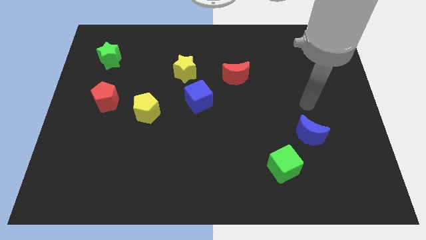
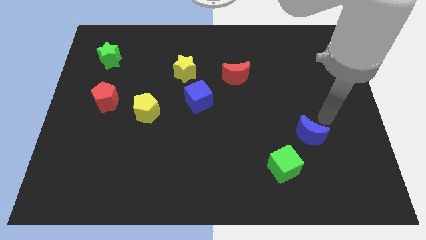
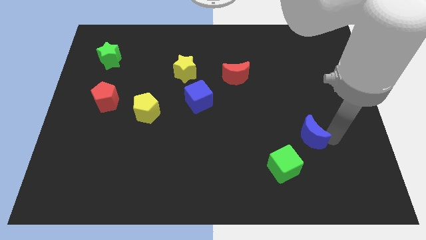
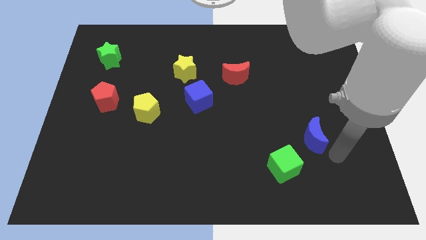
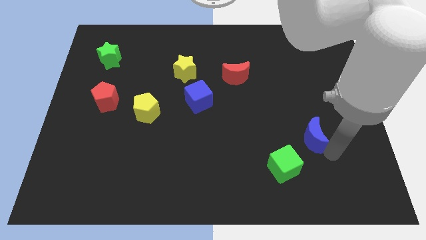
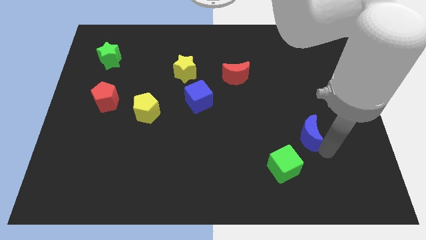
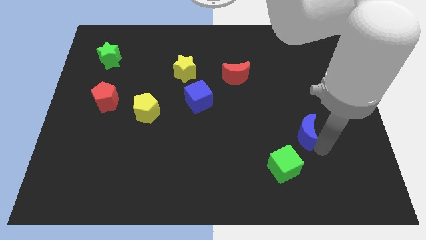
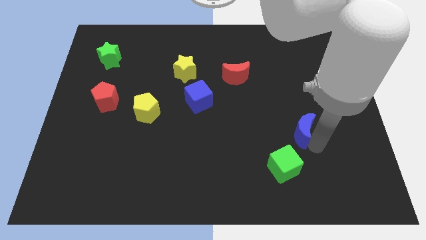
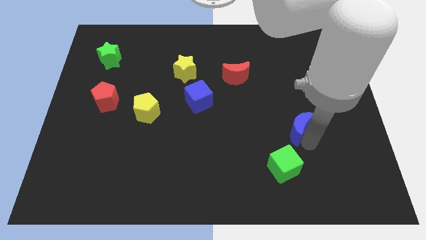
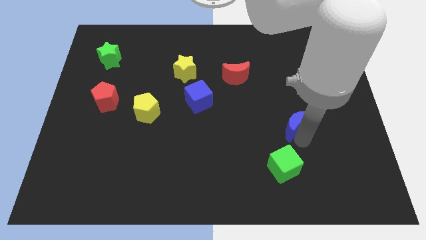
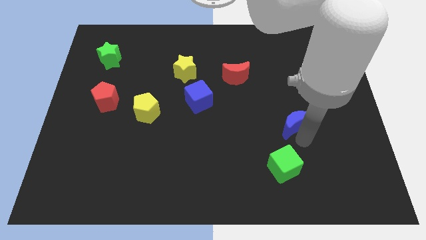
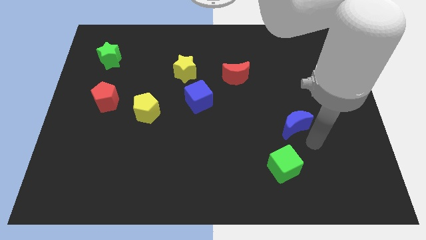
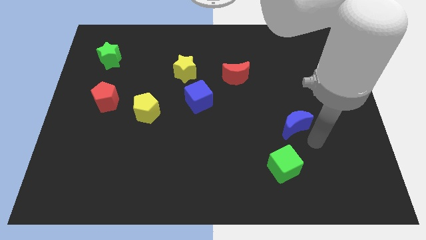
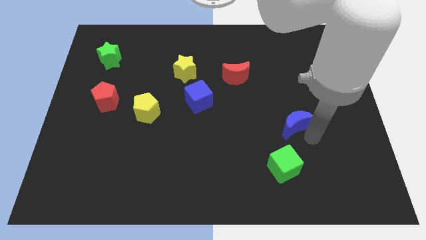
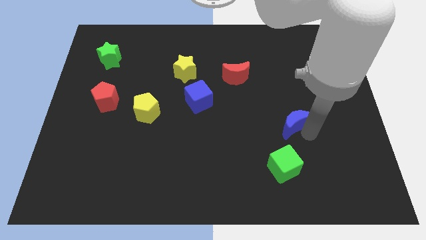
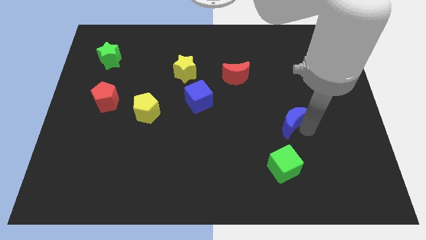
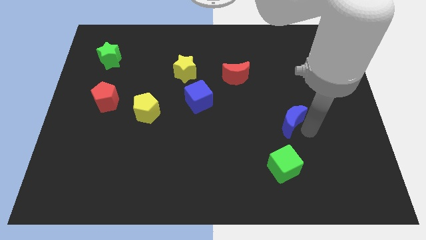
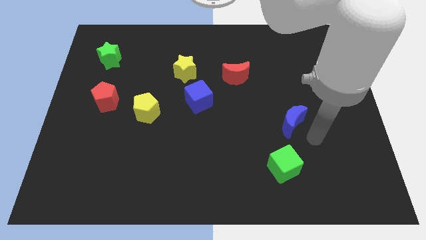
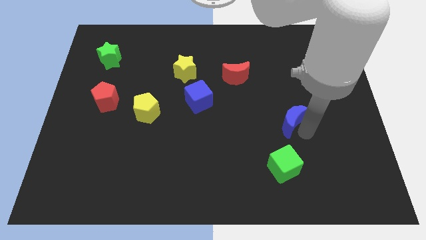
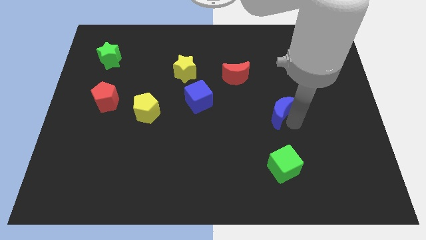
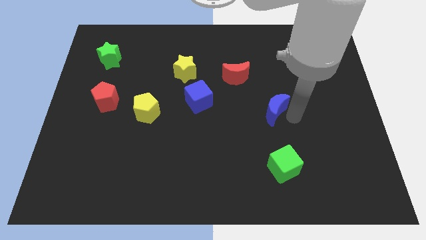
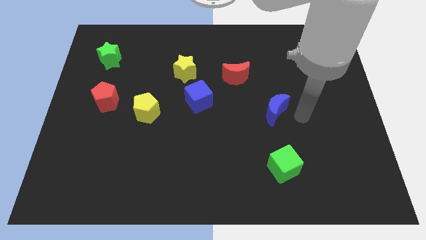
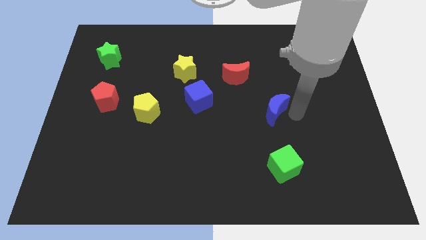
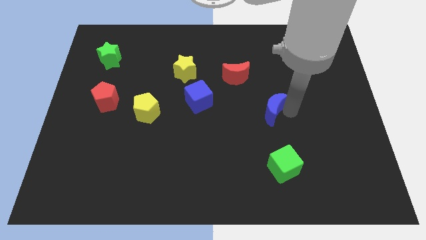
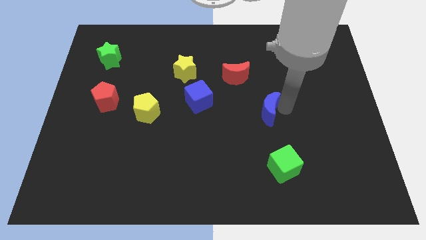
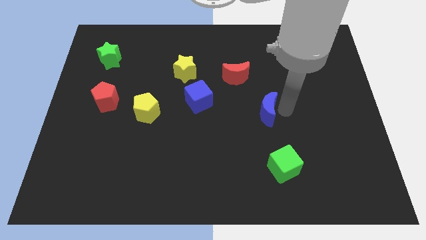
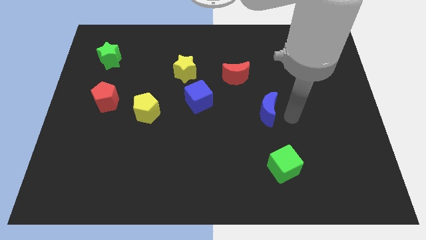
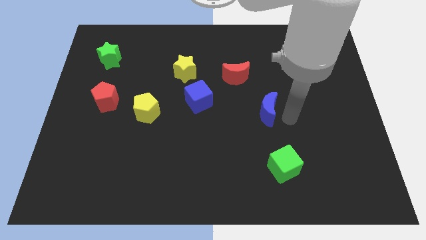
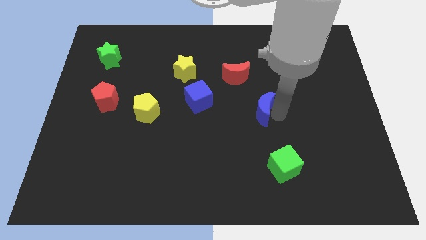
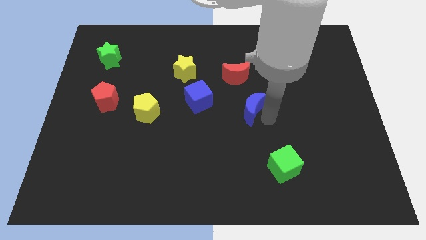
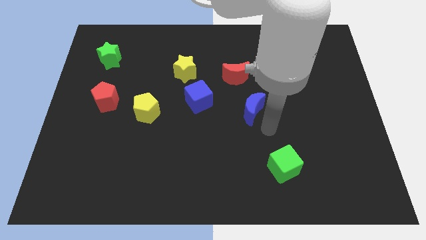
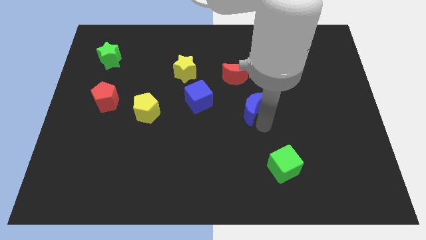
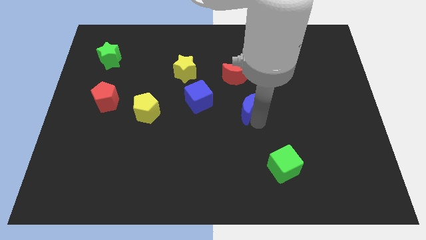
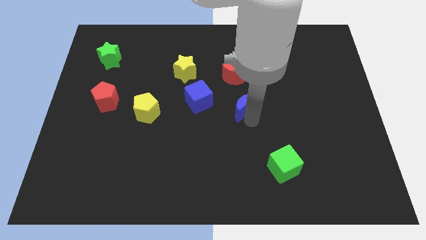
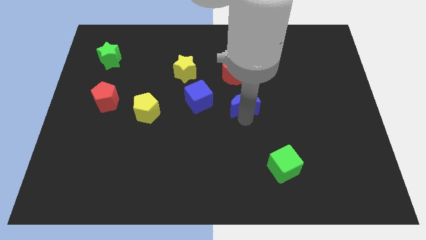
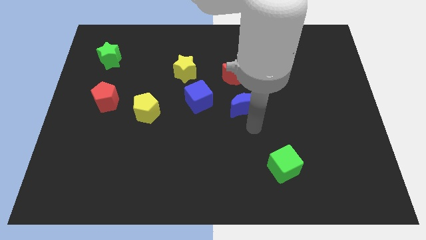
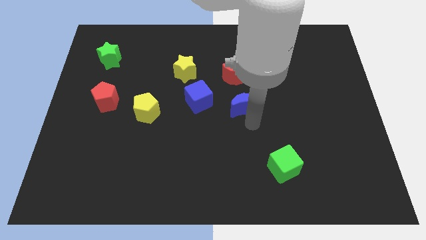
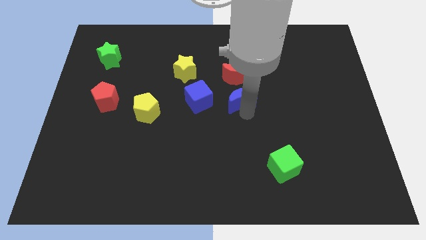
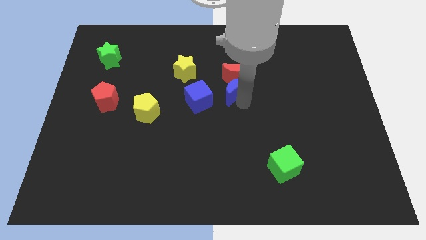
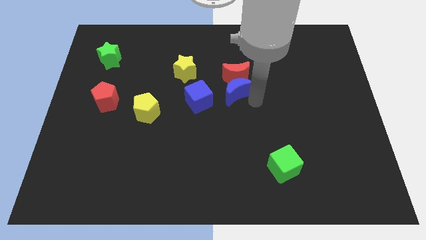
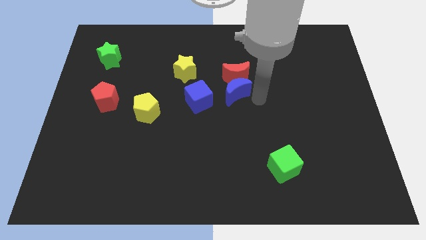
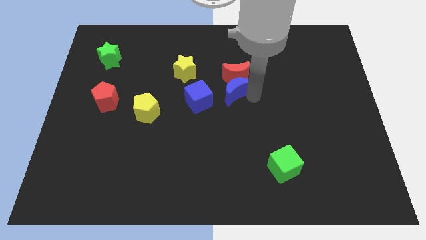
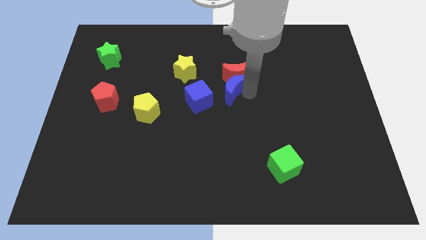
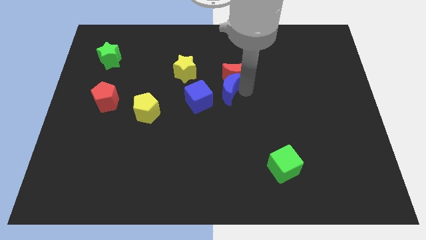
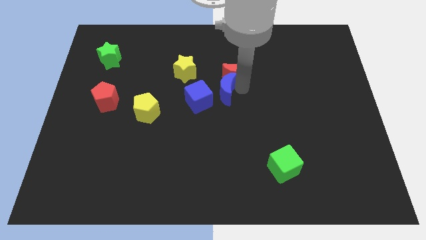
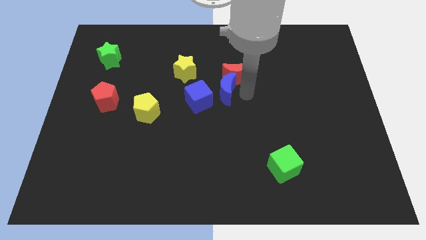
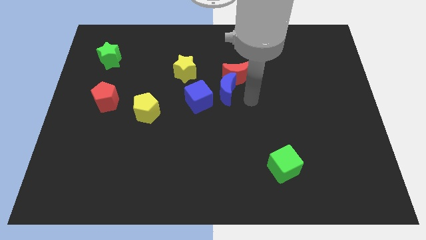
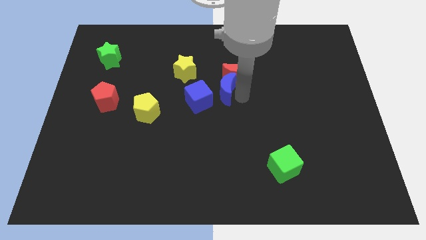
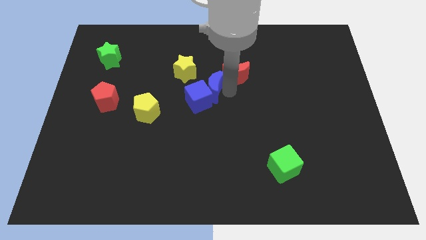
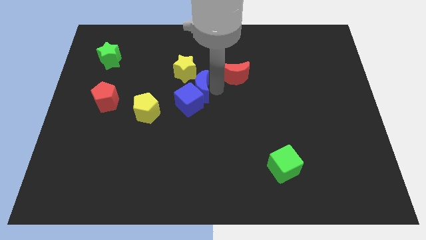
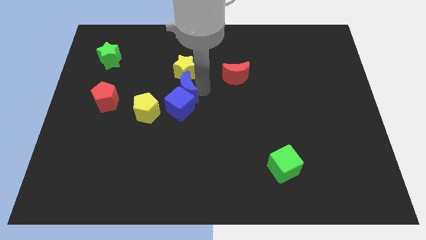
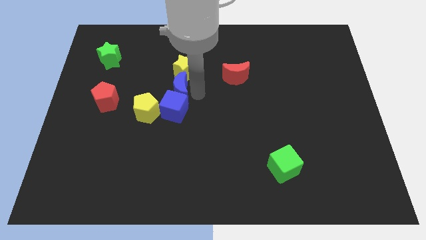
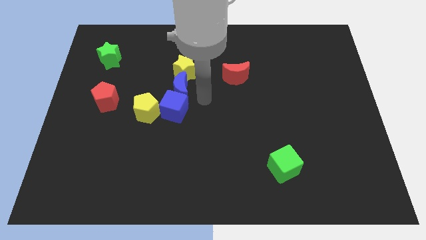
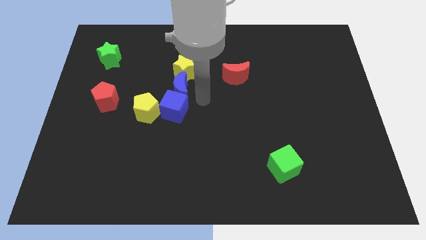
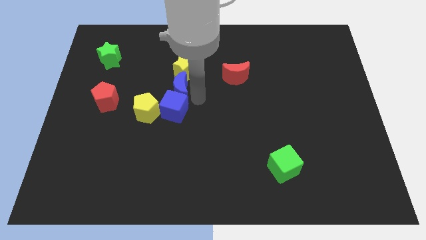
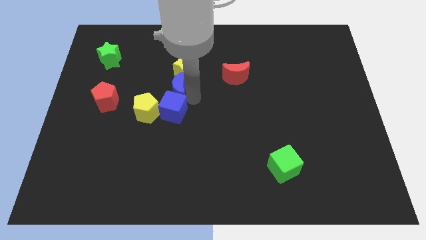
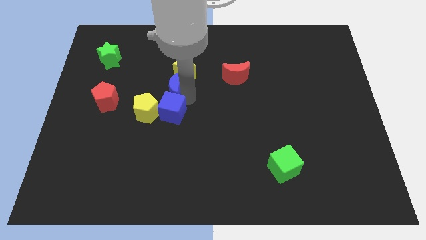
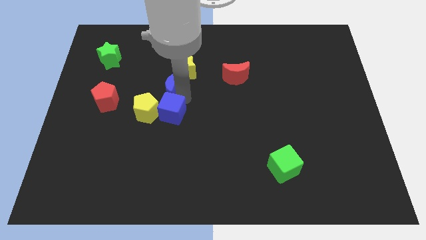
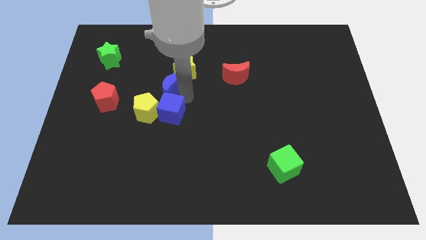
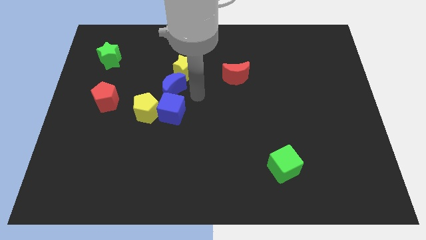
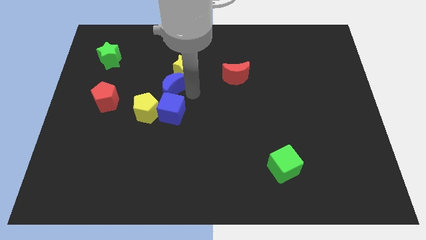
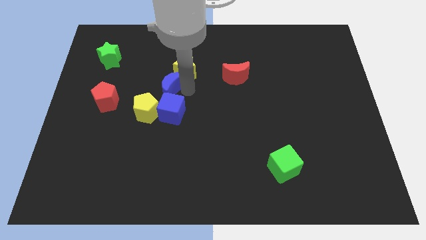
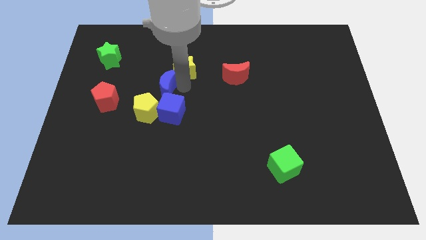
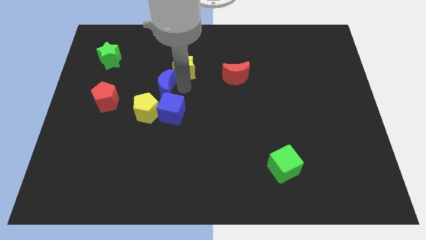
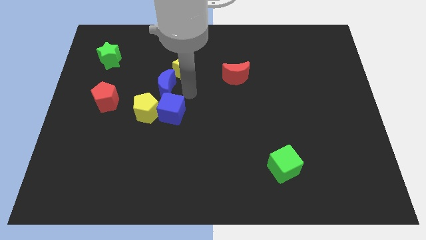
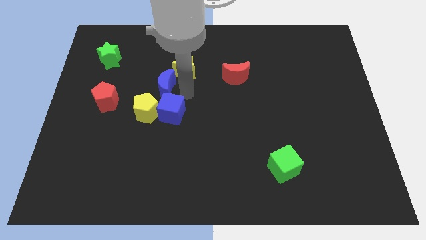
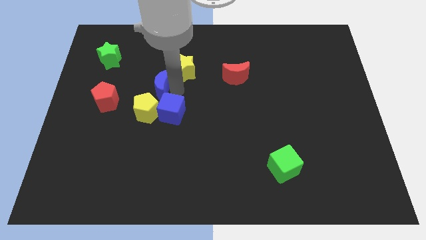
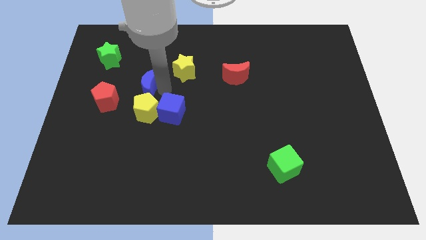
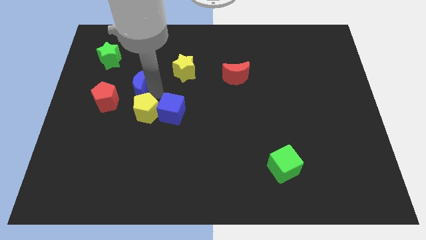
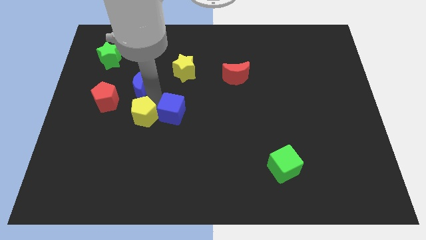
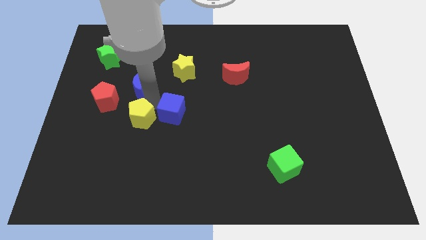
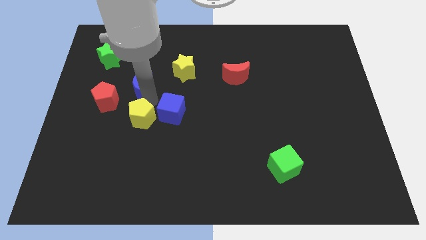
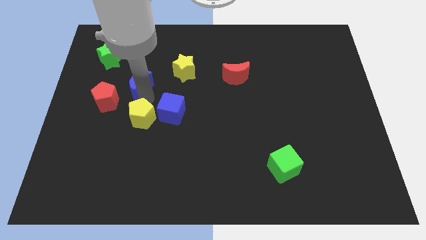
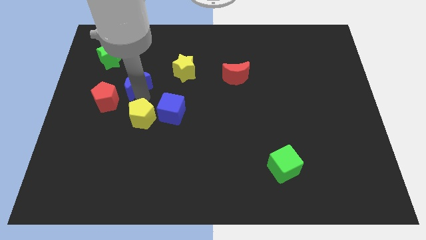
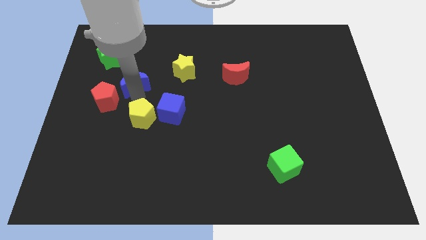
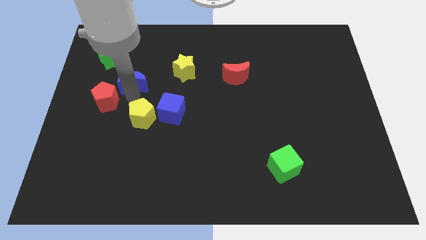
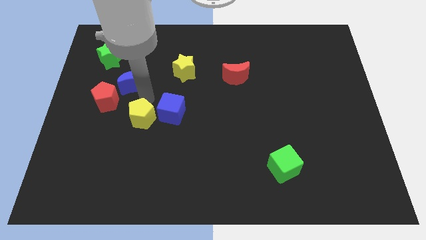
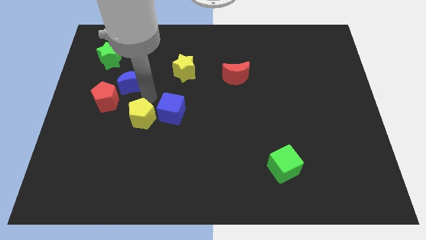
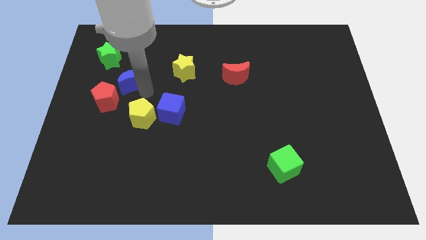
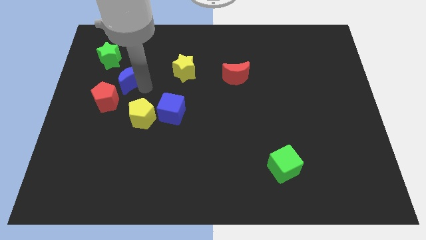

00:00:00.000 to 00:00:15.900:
move the blue moon above the red pentagon
